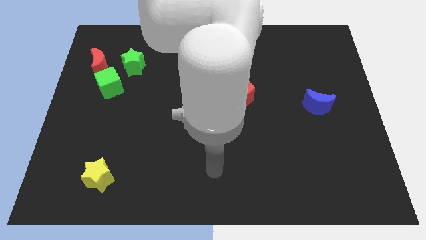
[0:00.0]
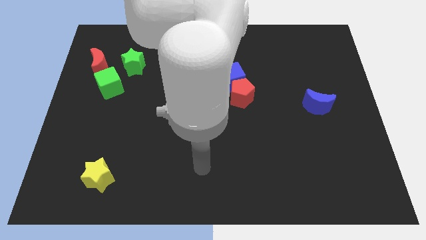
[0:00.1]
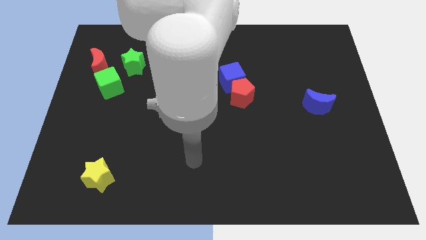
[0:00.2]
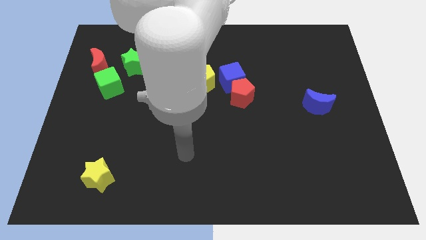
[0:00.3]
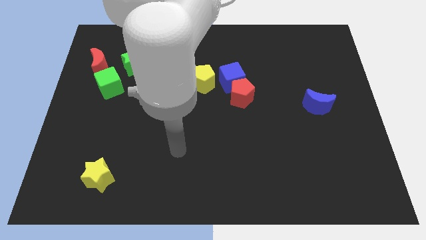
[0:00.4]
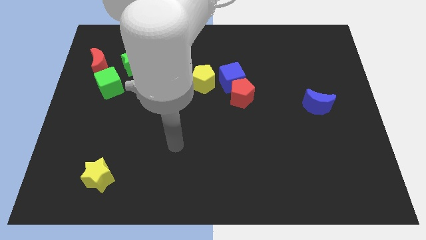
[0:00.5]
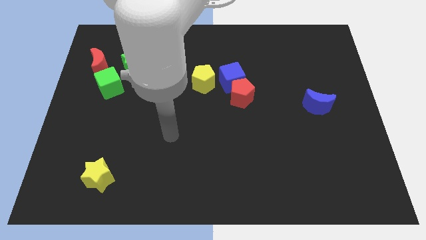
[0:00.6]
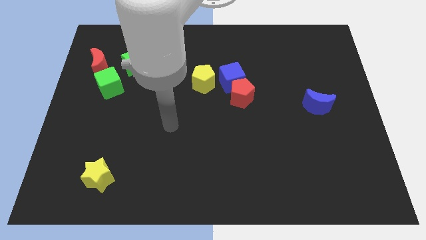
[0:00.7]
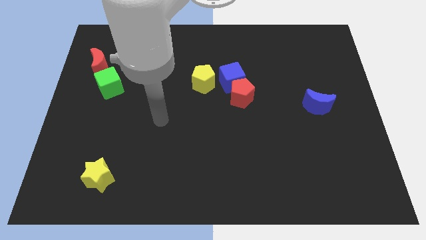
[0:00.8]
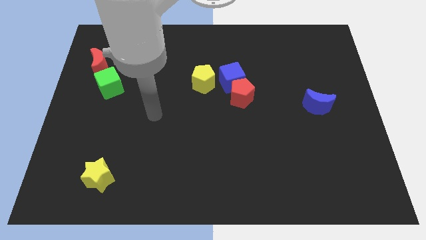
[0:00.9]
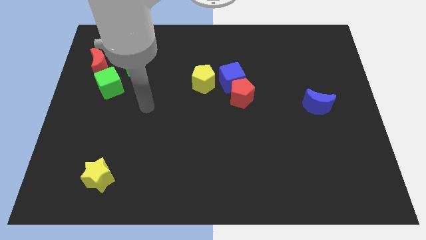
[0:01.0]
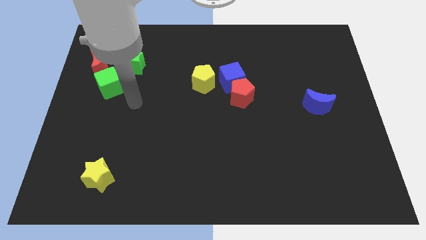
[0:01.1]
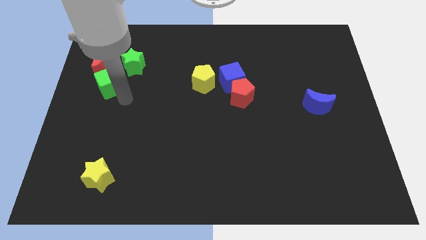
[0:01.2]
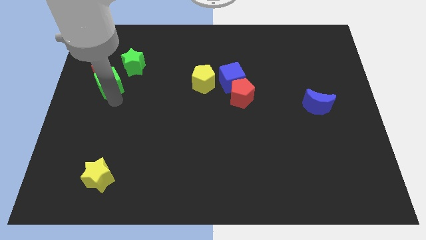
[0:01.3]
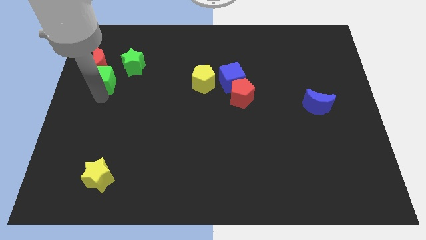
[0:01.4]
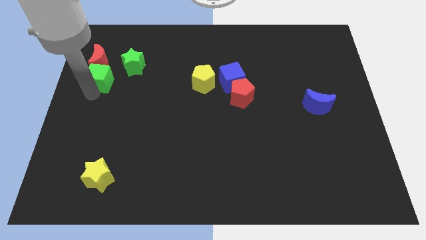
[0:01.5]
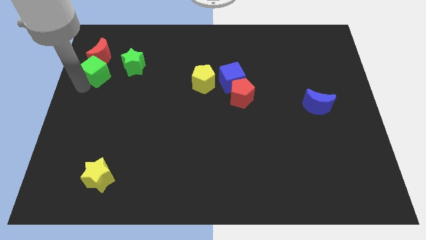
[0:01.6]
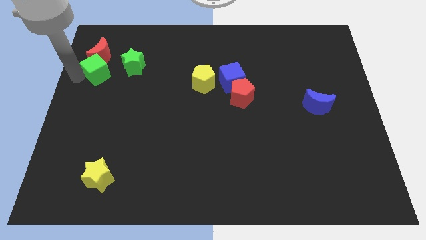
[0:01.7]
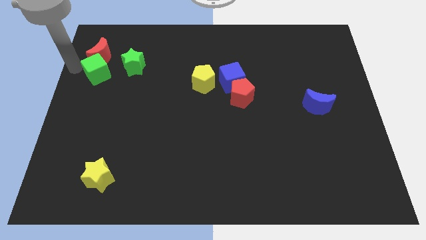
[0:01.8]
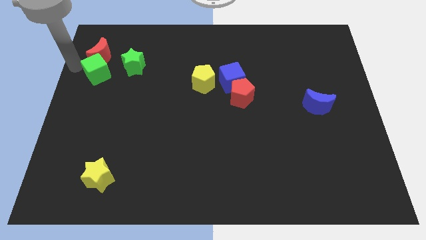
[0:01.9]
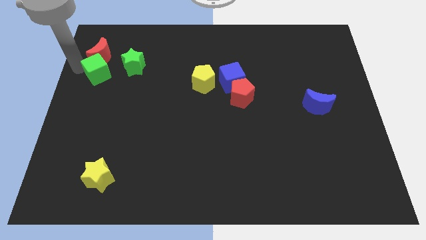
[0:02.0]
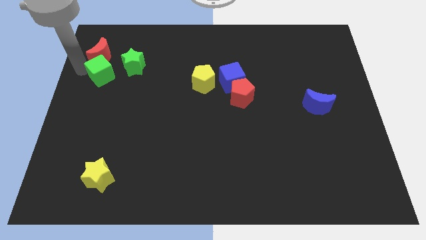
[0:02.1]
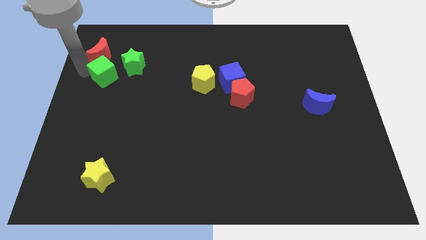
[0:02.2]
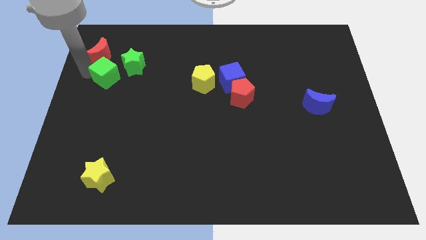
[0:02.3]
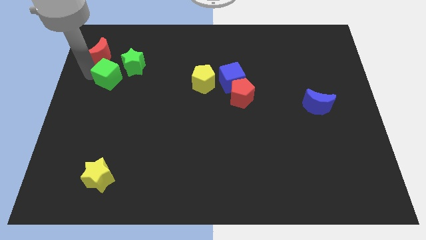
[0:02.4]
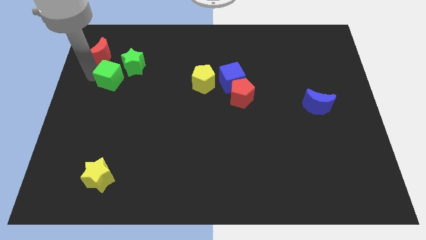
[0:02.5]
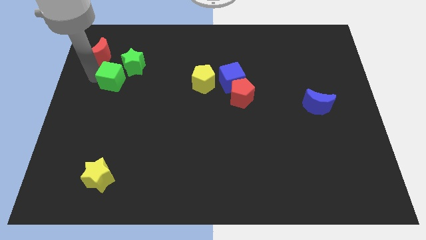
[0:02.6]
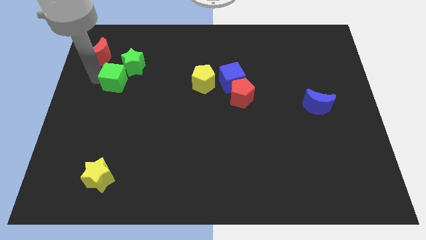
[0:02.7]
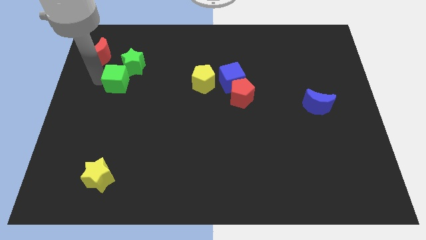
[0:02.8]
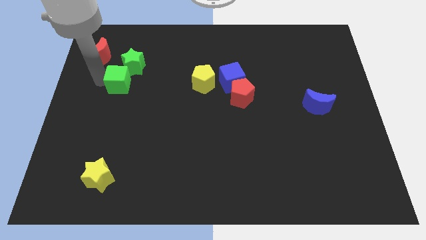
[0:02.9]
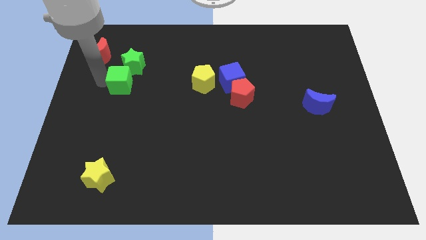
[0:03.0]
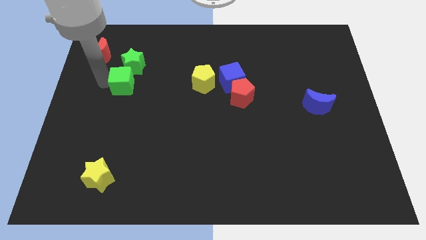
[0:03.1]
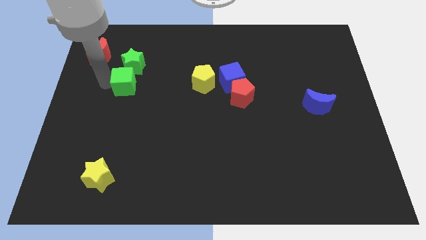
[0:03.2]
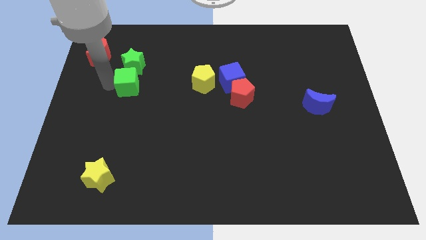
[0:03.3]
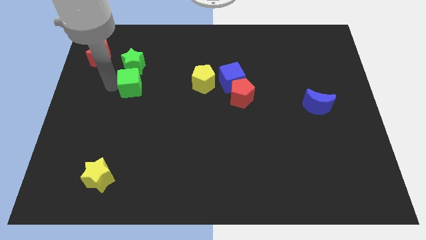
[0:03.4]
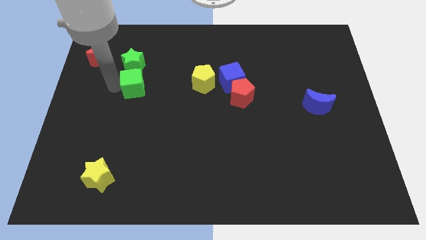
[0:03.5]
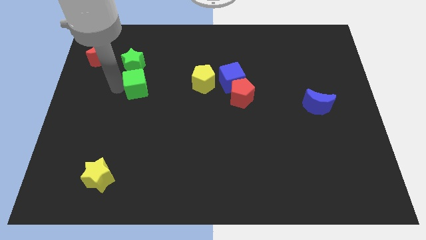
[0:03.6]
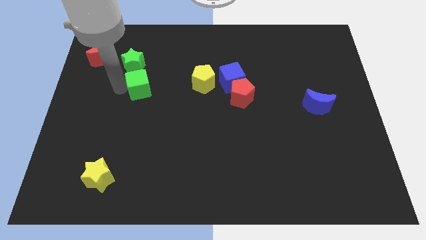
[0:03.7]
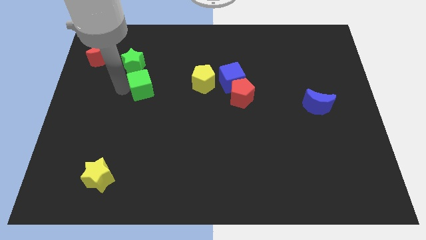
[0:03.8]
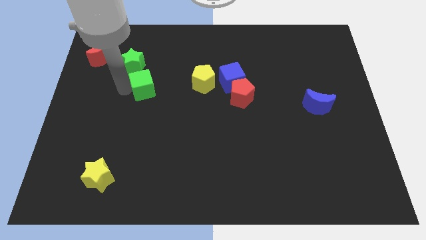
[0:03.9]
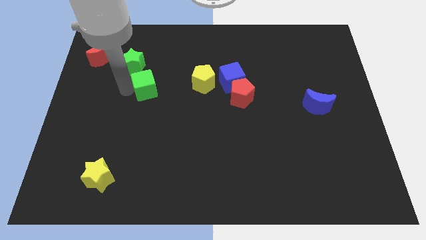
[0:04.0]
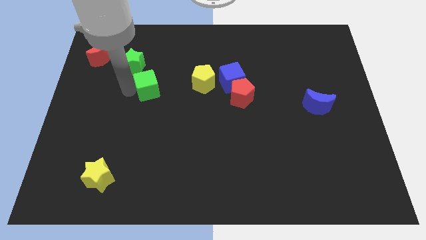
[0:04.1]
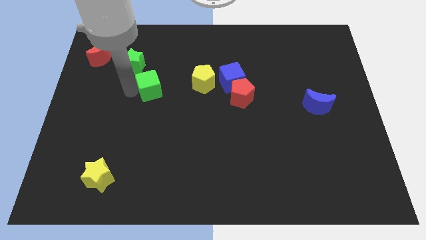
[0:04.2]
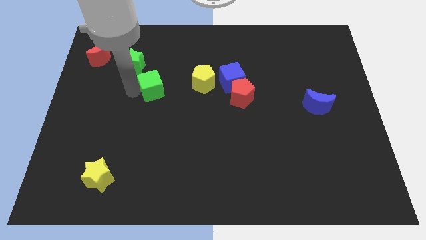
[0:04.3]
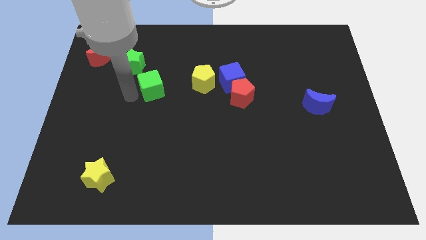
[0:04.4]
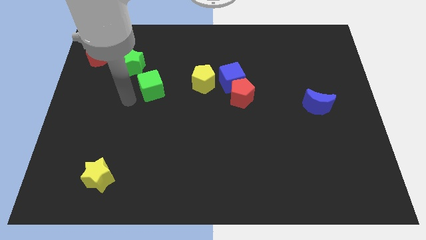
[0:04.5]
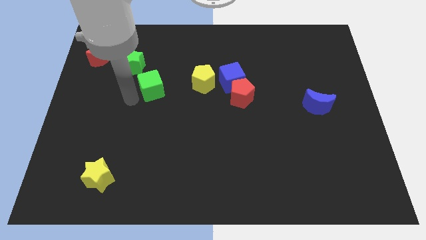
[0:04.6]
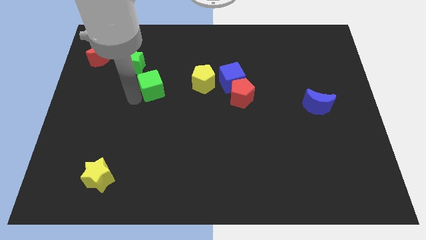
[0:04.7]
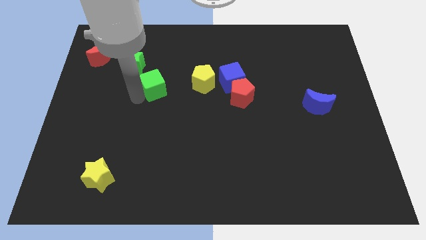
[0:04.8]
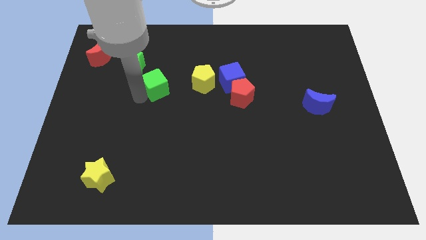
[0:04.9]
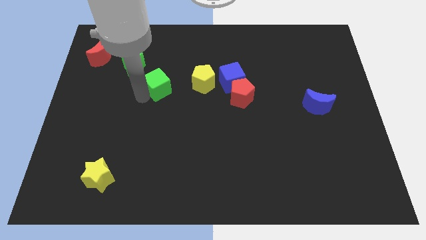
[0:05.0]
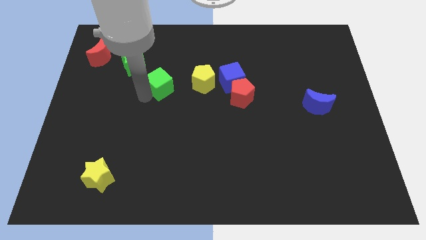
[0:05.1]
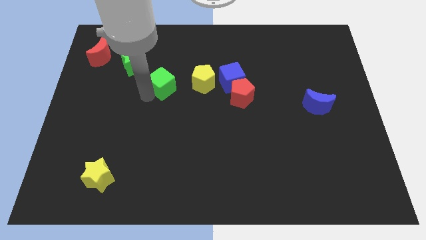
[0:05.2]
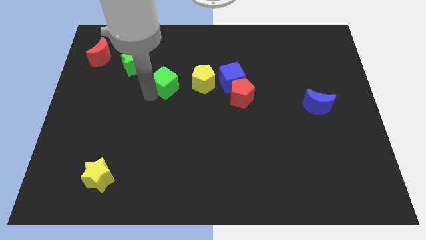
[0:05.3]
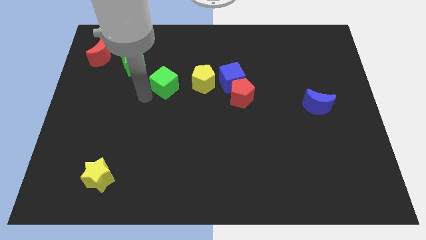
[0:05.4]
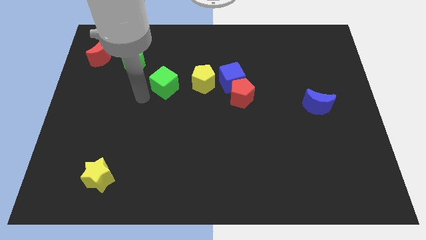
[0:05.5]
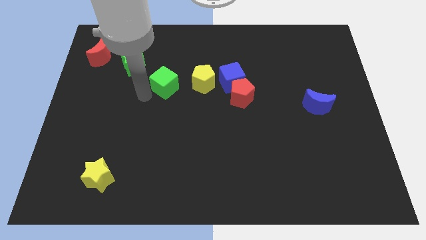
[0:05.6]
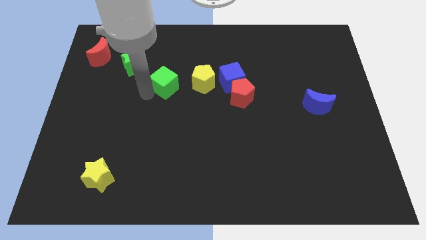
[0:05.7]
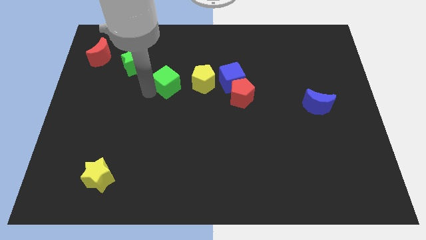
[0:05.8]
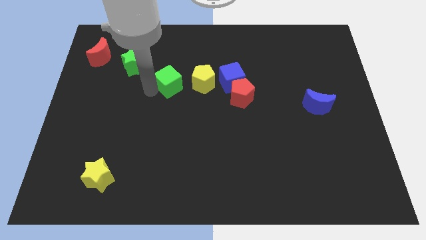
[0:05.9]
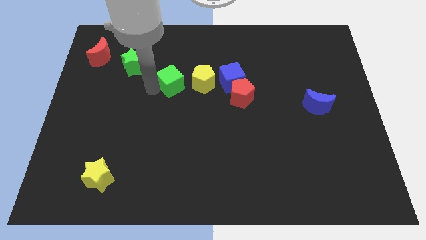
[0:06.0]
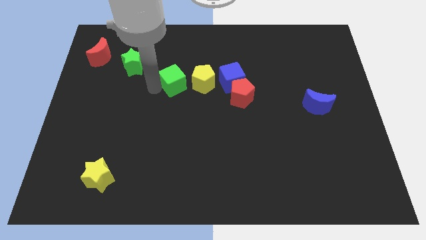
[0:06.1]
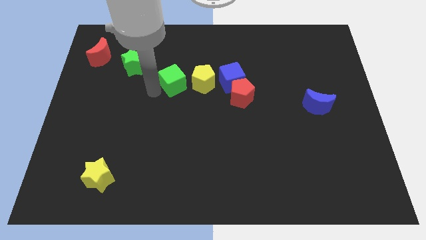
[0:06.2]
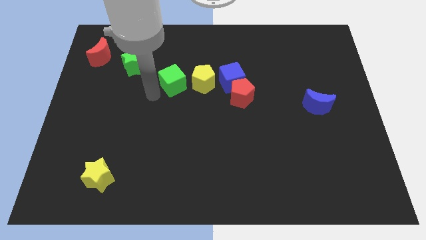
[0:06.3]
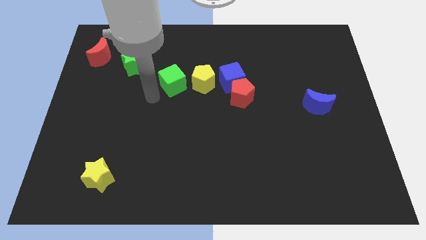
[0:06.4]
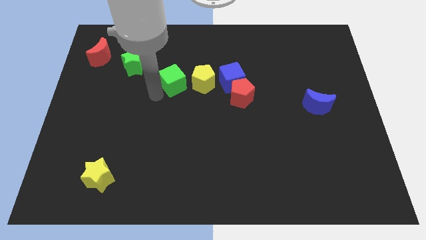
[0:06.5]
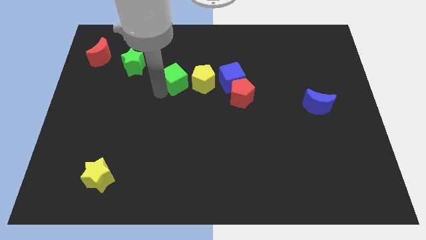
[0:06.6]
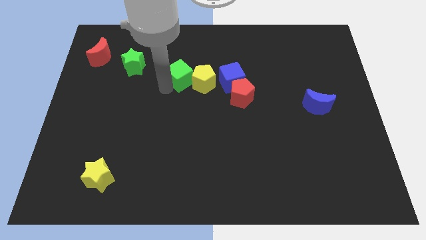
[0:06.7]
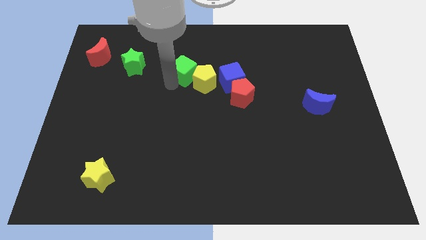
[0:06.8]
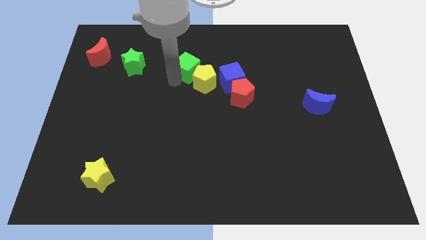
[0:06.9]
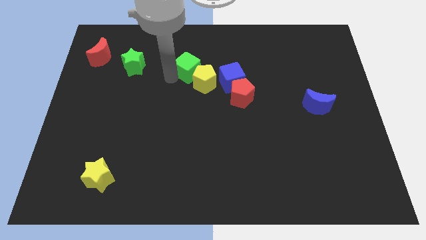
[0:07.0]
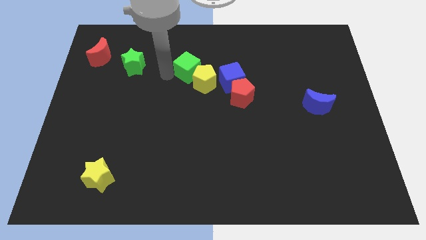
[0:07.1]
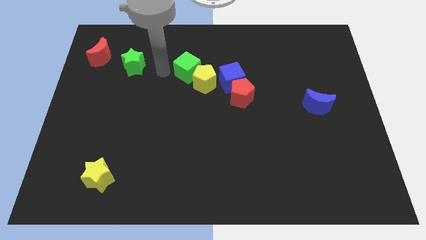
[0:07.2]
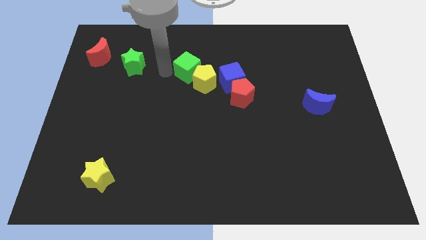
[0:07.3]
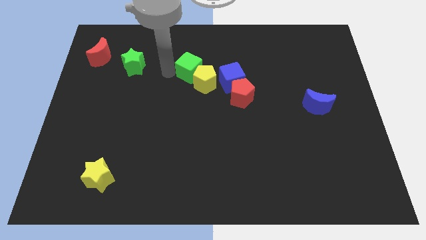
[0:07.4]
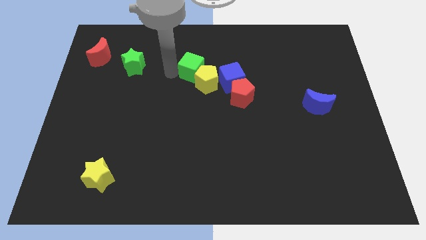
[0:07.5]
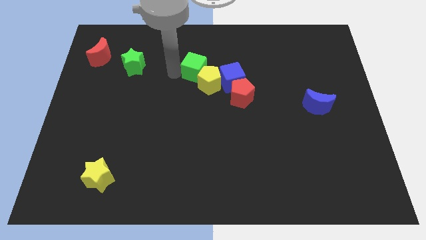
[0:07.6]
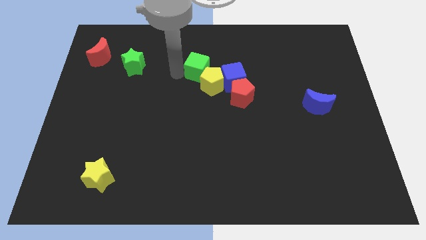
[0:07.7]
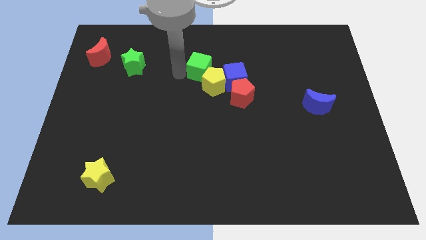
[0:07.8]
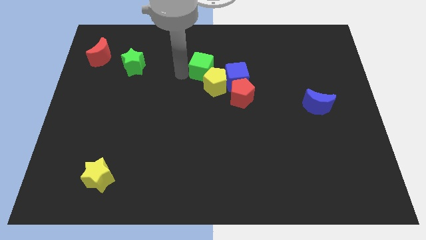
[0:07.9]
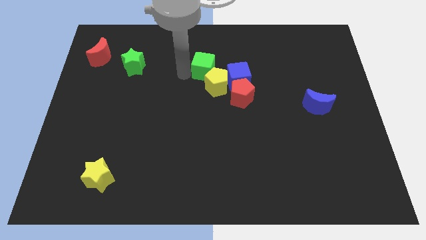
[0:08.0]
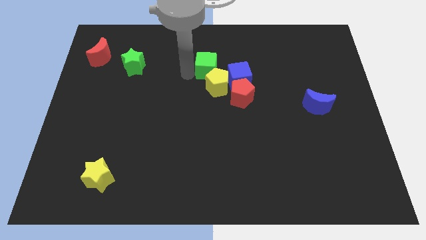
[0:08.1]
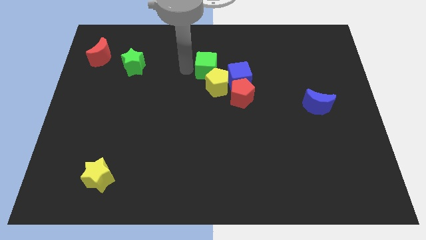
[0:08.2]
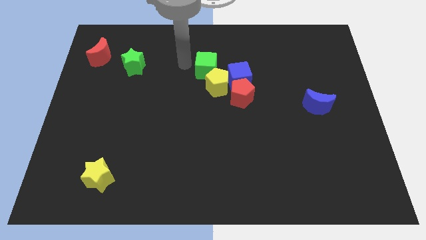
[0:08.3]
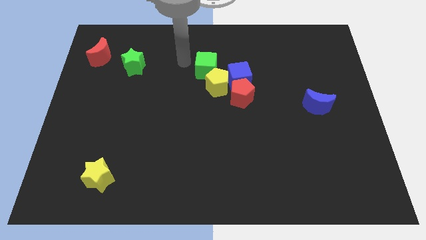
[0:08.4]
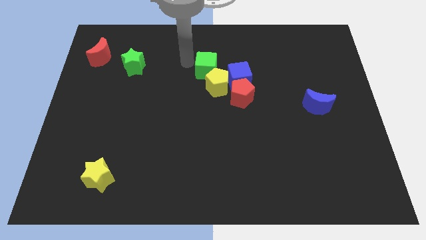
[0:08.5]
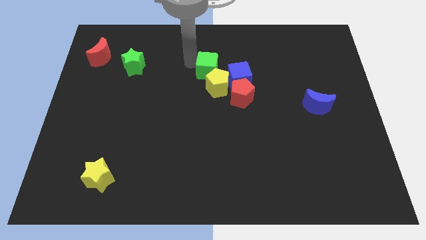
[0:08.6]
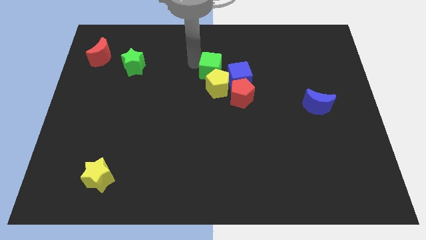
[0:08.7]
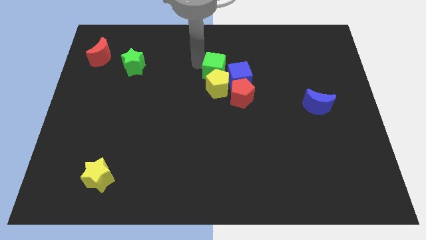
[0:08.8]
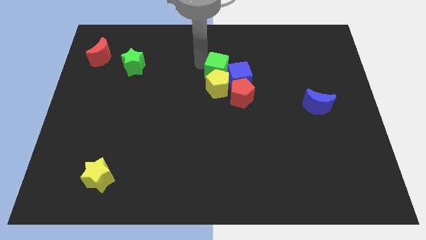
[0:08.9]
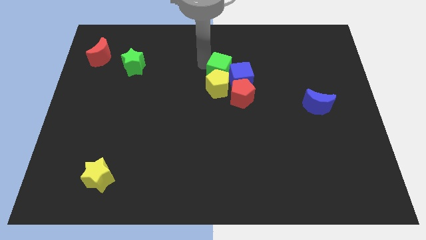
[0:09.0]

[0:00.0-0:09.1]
slide the green cube close to the blue cube
